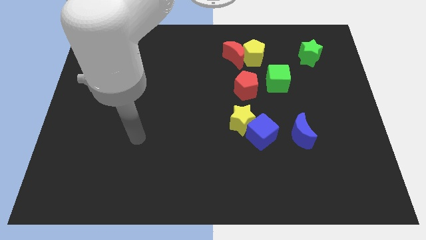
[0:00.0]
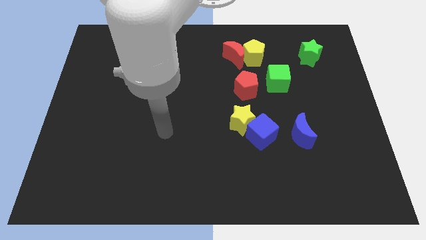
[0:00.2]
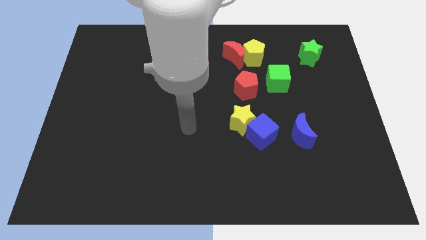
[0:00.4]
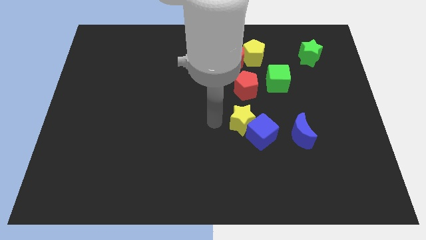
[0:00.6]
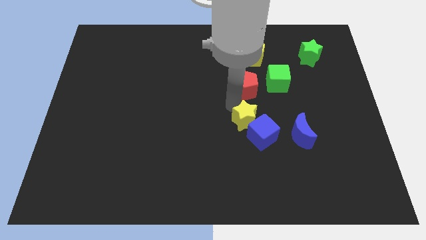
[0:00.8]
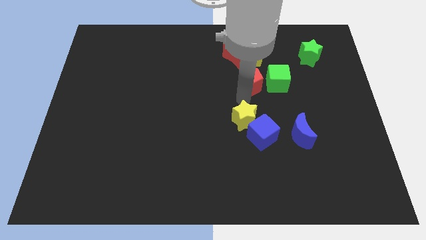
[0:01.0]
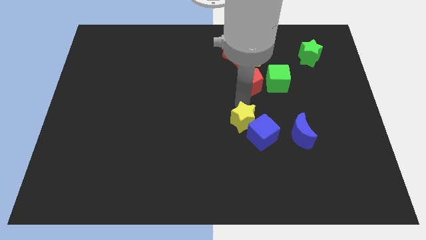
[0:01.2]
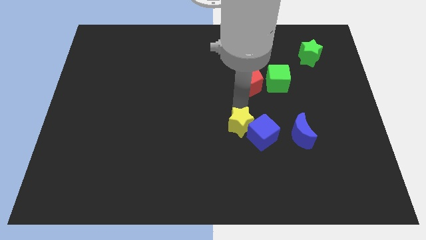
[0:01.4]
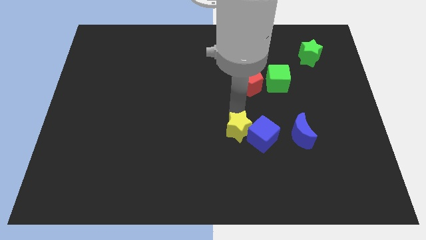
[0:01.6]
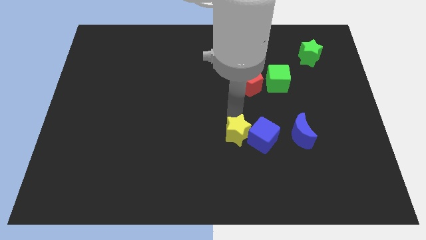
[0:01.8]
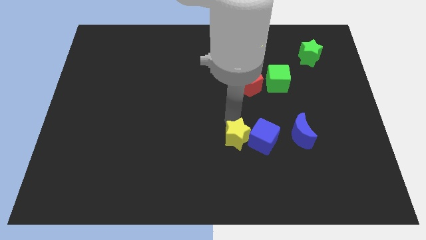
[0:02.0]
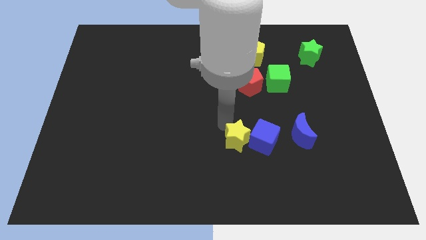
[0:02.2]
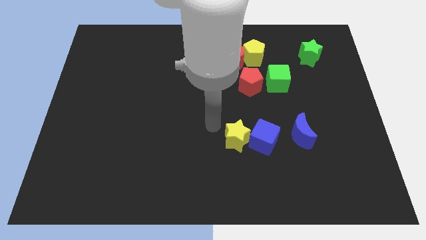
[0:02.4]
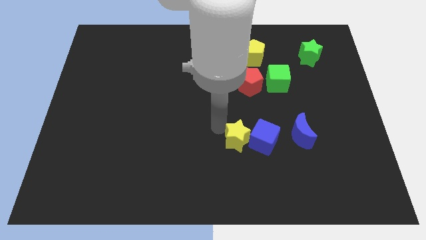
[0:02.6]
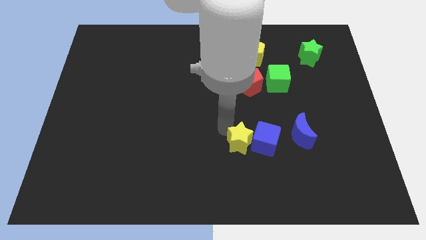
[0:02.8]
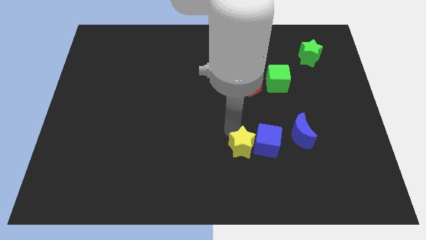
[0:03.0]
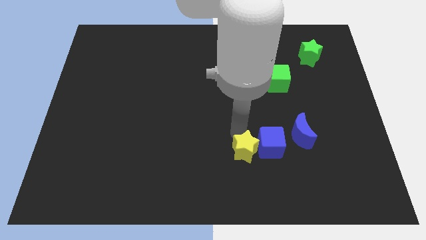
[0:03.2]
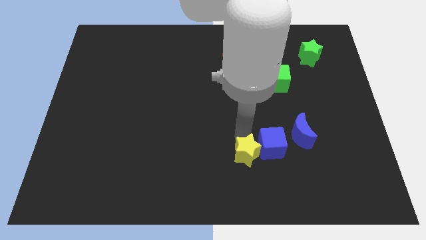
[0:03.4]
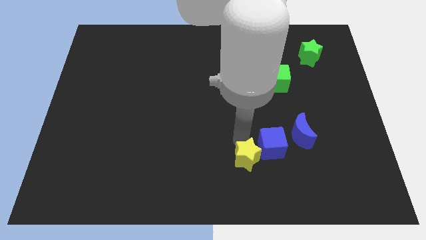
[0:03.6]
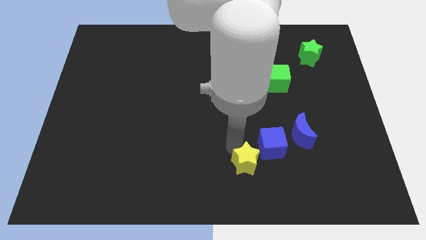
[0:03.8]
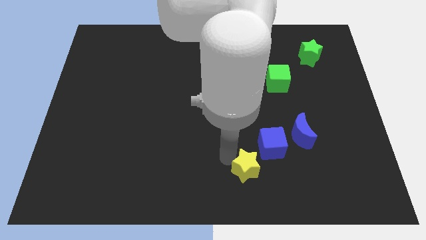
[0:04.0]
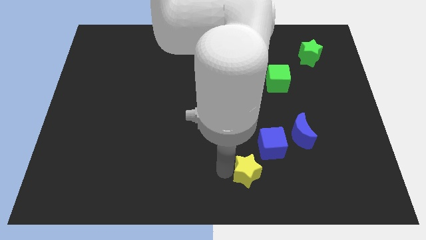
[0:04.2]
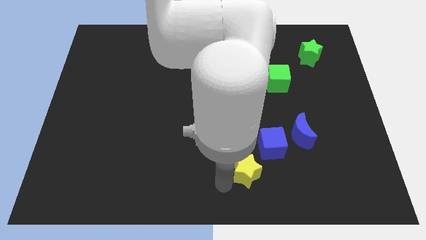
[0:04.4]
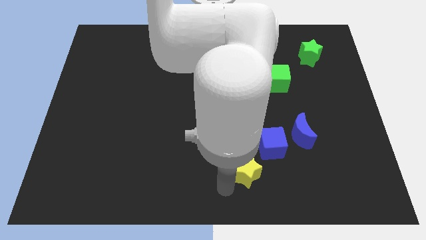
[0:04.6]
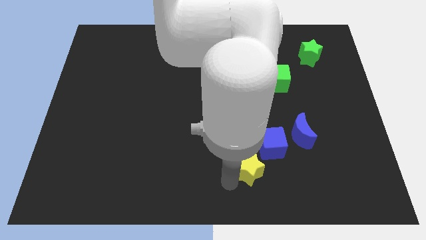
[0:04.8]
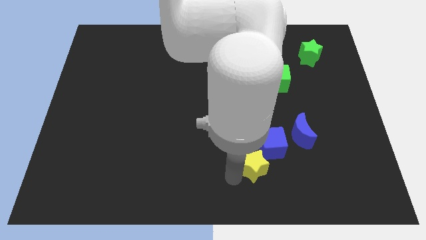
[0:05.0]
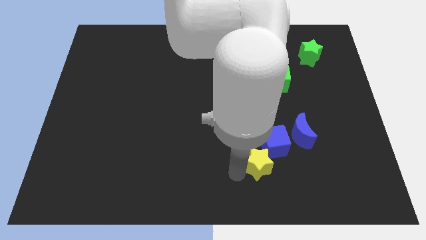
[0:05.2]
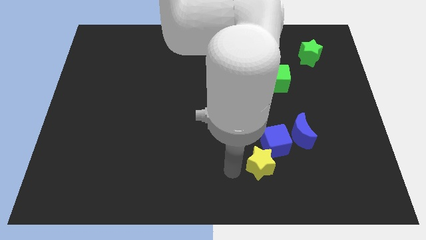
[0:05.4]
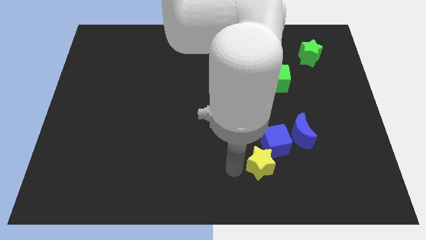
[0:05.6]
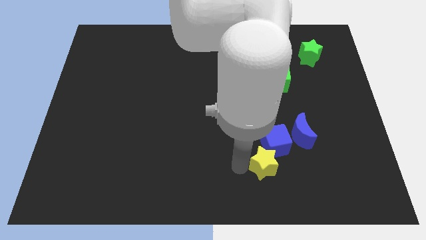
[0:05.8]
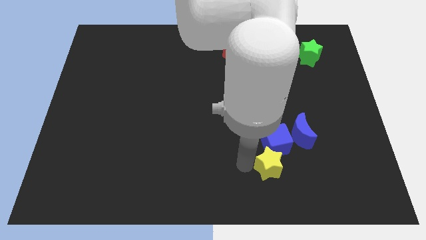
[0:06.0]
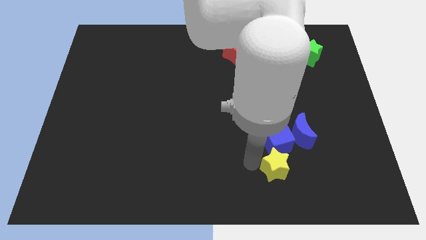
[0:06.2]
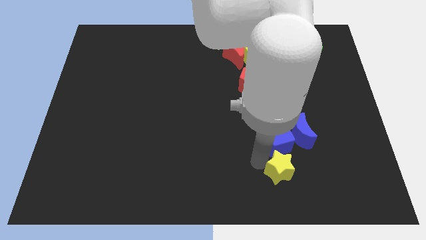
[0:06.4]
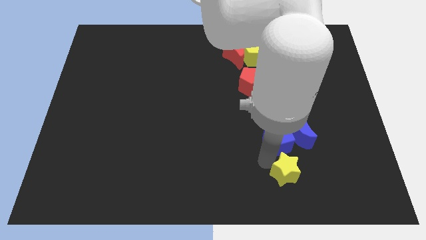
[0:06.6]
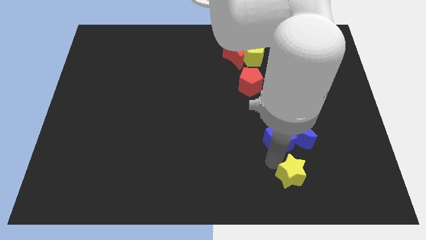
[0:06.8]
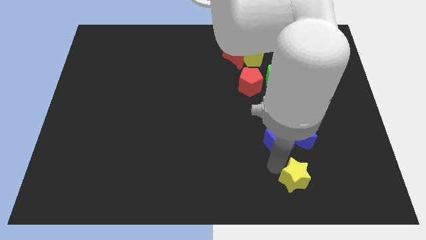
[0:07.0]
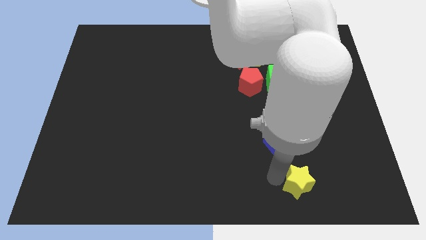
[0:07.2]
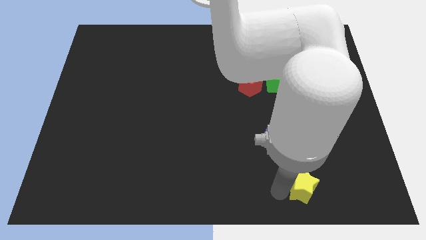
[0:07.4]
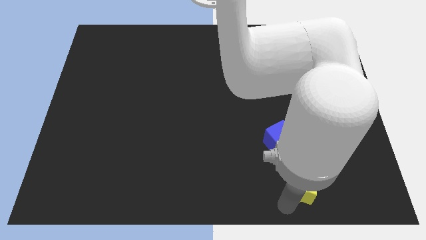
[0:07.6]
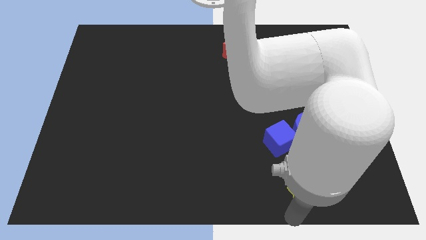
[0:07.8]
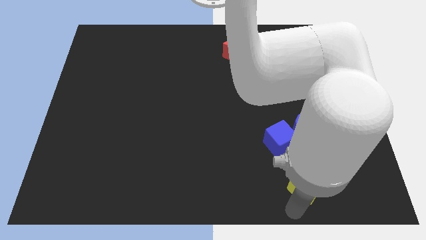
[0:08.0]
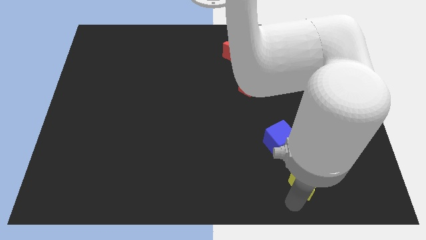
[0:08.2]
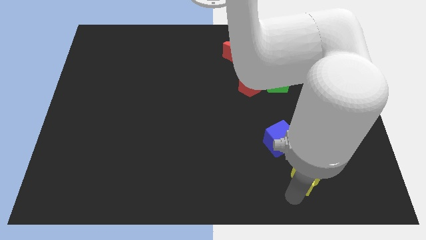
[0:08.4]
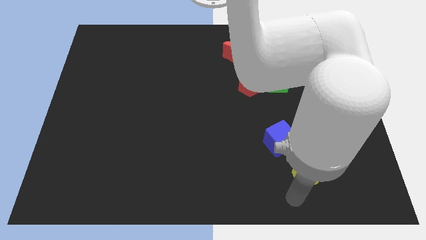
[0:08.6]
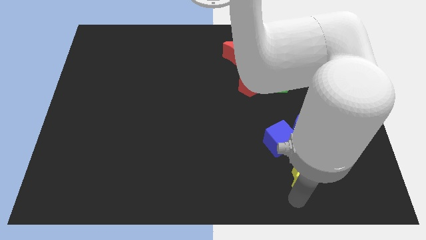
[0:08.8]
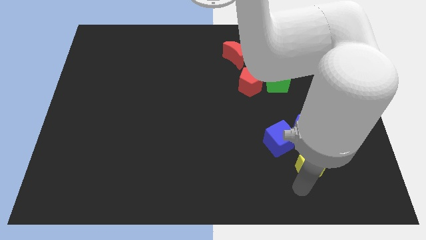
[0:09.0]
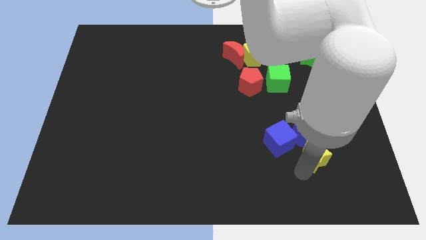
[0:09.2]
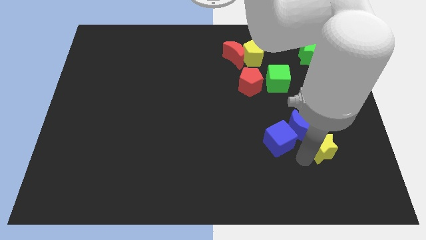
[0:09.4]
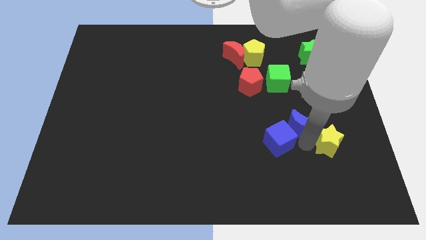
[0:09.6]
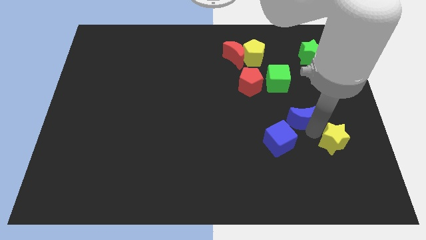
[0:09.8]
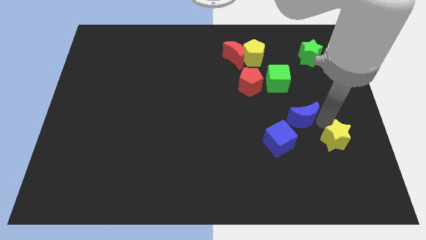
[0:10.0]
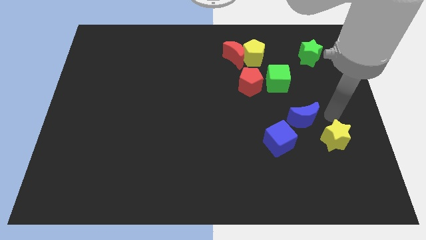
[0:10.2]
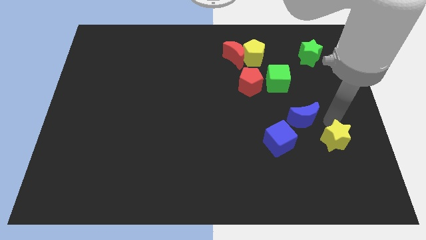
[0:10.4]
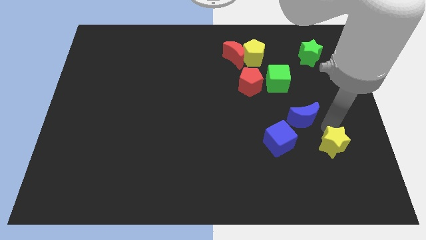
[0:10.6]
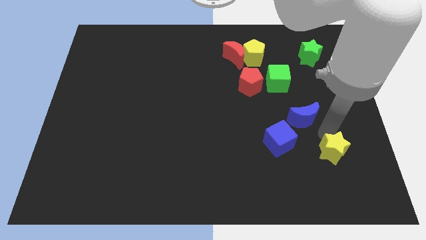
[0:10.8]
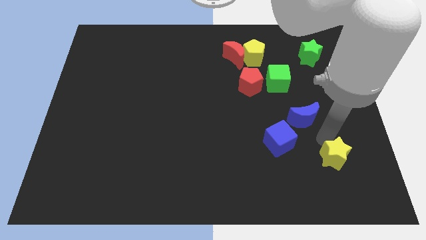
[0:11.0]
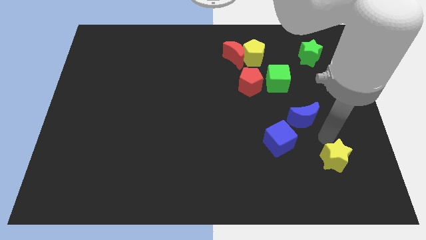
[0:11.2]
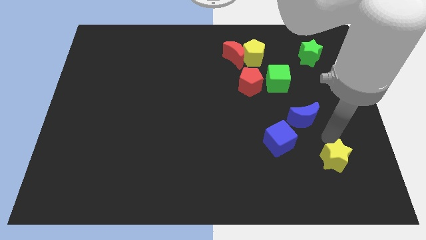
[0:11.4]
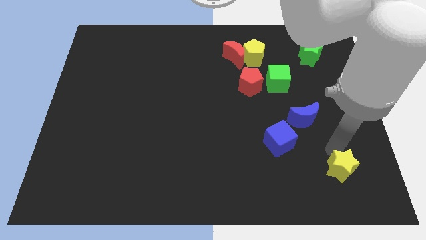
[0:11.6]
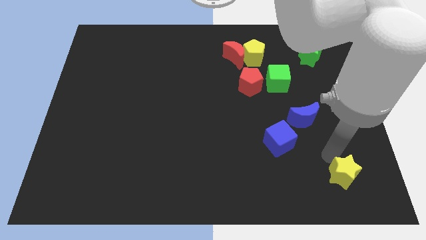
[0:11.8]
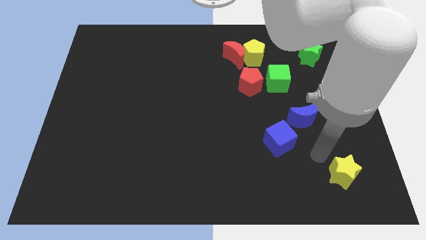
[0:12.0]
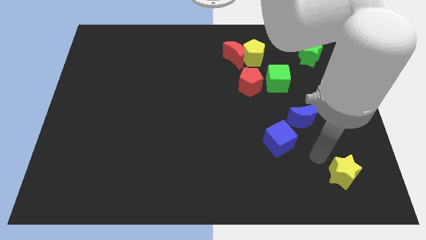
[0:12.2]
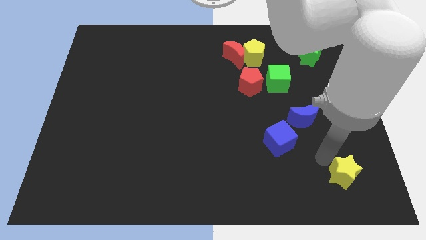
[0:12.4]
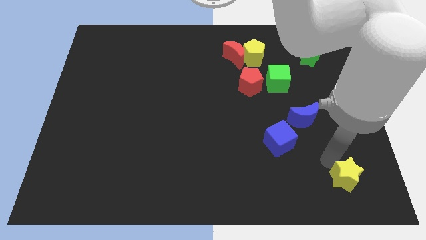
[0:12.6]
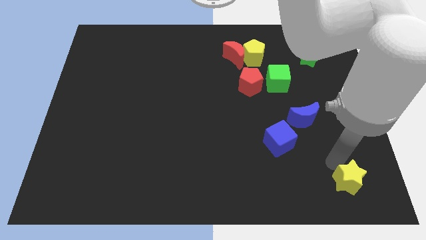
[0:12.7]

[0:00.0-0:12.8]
put the yellow star to the bottom right of the board

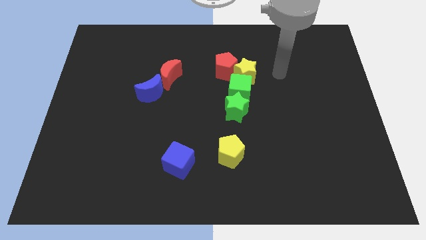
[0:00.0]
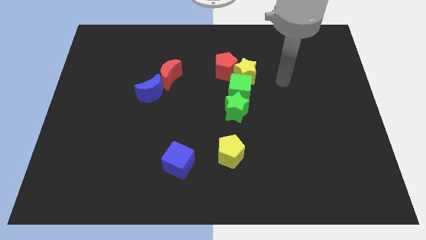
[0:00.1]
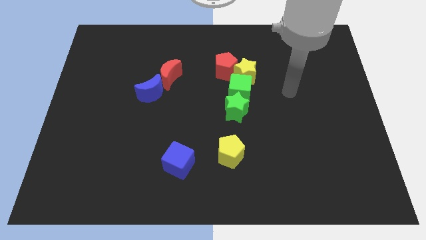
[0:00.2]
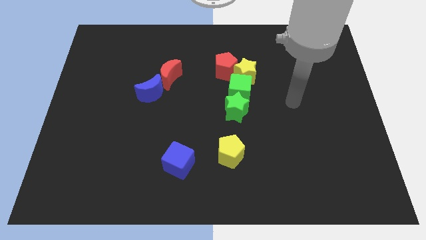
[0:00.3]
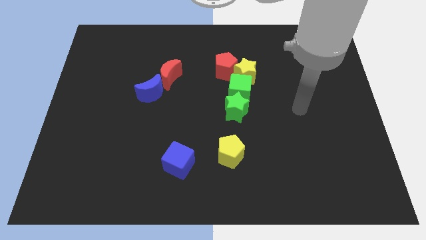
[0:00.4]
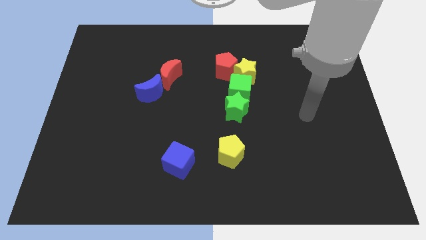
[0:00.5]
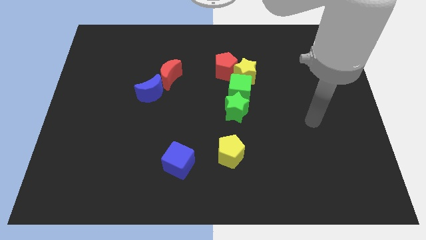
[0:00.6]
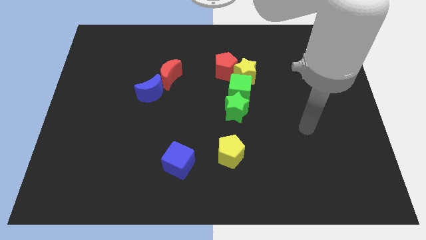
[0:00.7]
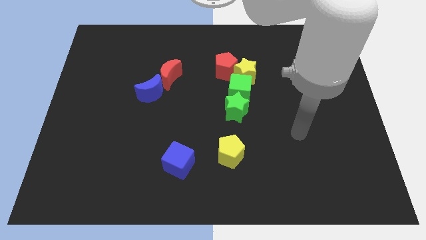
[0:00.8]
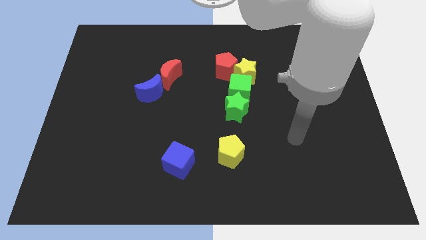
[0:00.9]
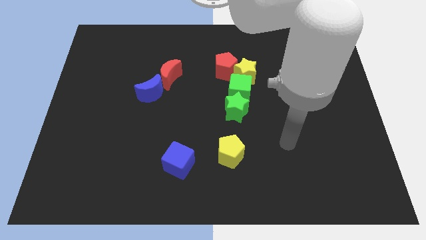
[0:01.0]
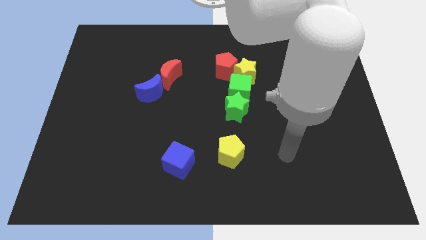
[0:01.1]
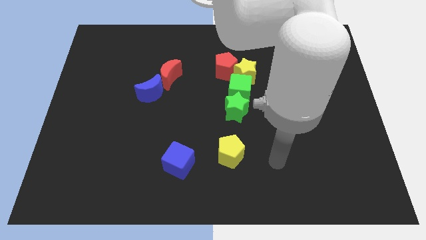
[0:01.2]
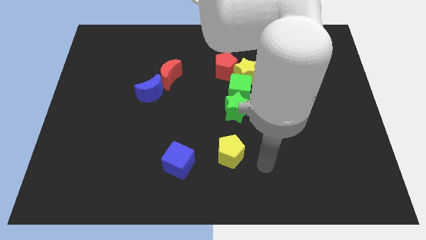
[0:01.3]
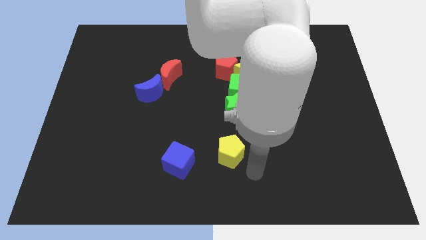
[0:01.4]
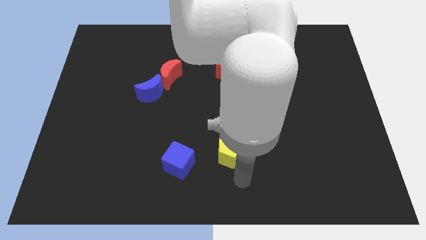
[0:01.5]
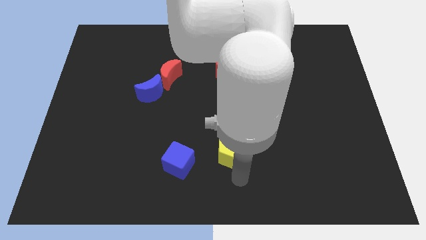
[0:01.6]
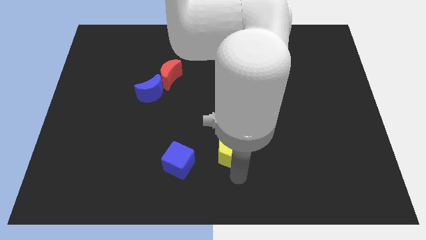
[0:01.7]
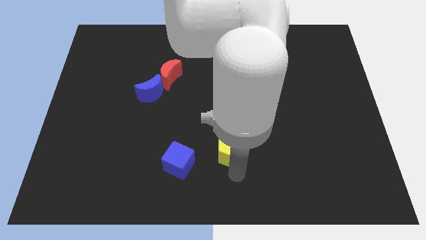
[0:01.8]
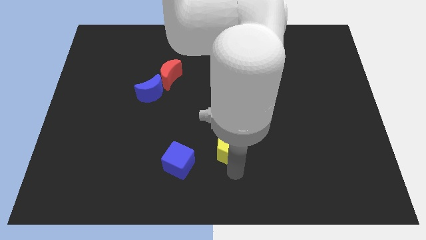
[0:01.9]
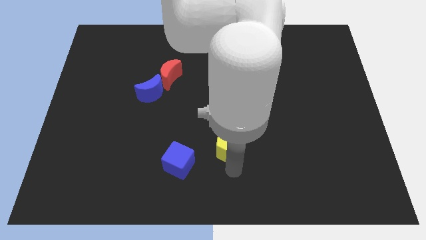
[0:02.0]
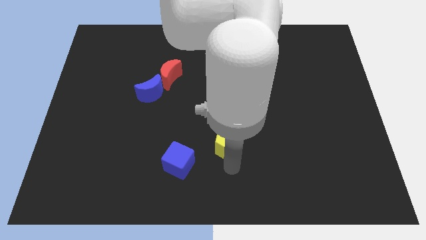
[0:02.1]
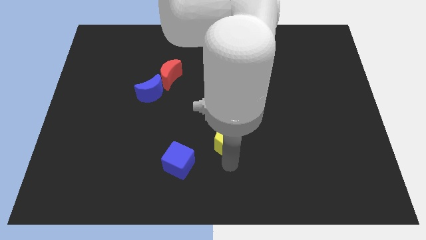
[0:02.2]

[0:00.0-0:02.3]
slide the yellow pentagon to the middle
